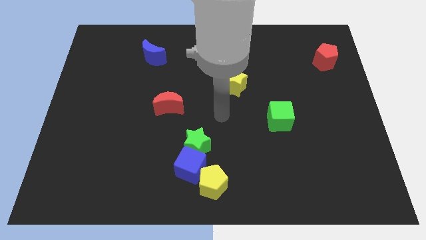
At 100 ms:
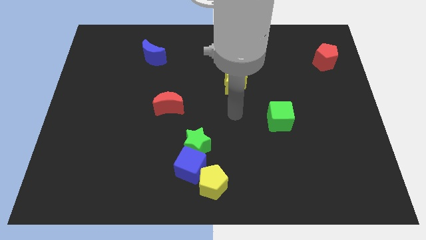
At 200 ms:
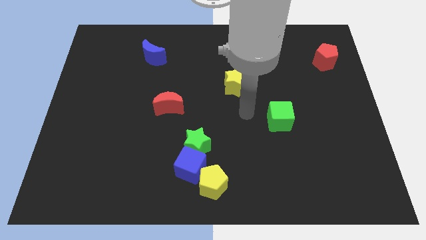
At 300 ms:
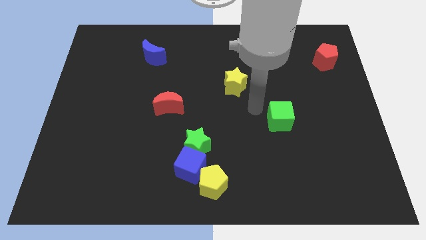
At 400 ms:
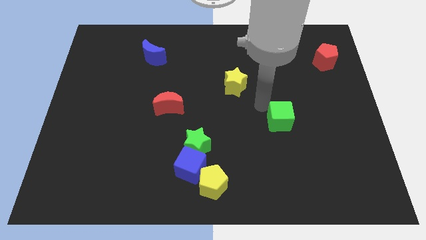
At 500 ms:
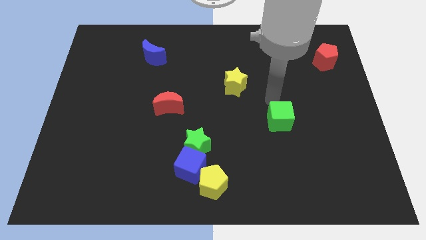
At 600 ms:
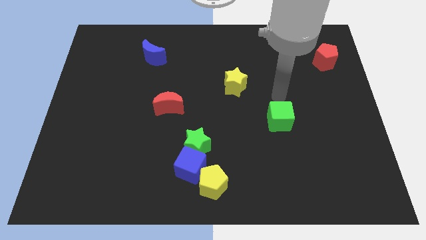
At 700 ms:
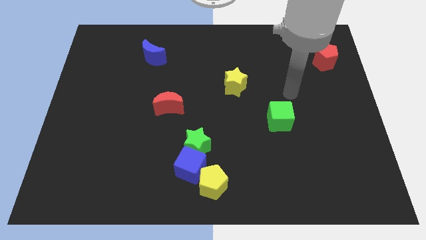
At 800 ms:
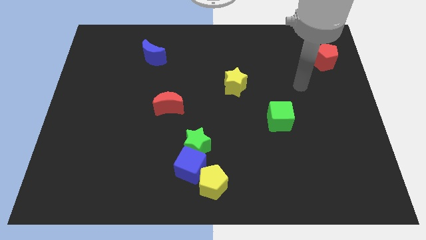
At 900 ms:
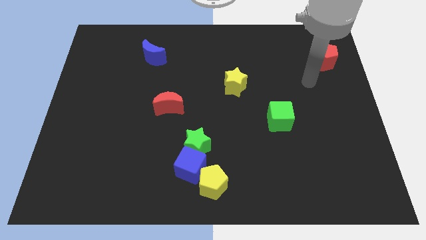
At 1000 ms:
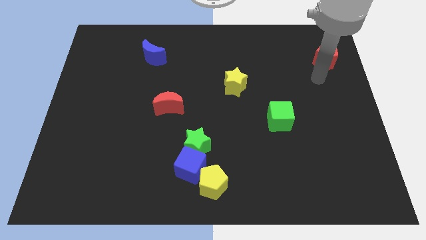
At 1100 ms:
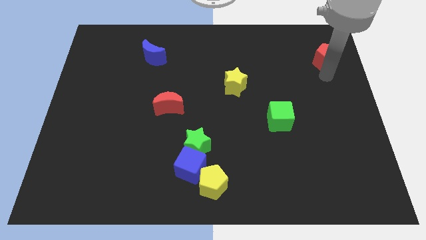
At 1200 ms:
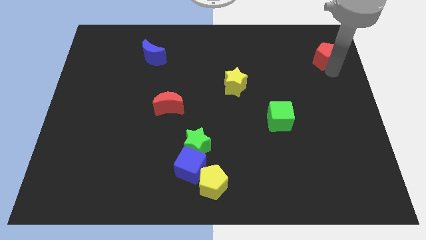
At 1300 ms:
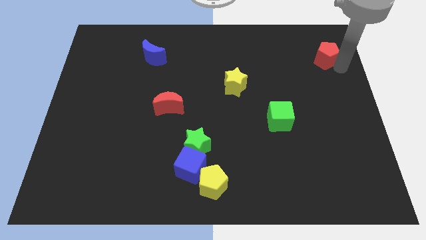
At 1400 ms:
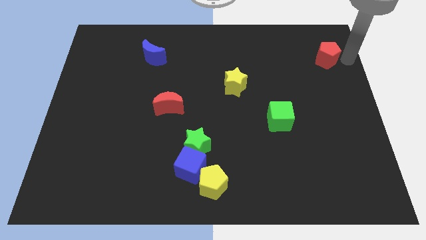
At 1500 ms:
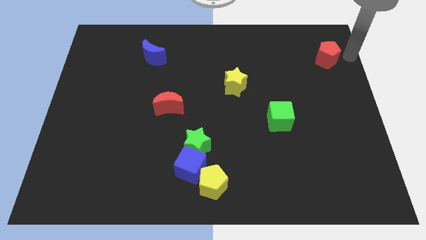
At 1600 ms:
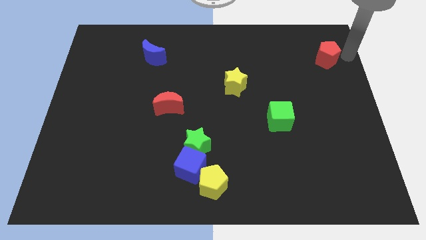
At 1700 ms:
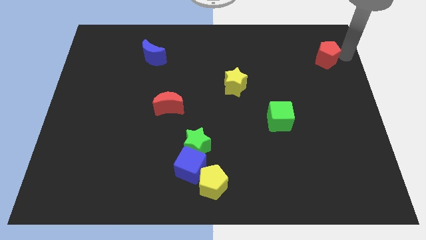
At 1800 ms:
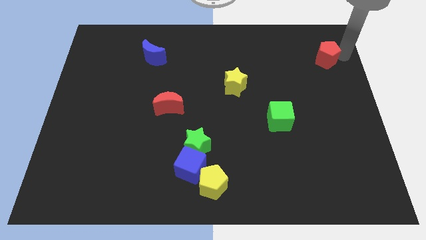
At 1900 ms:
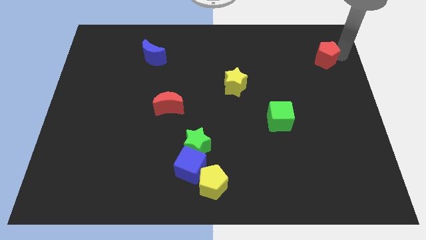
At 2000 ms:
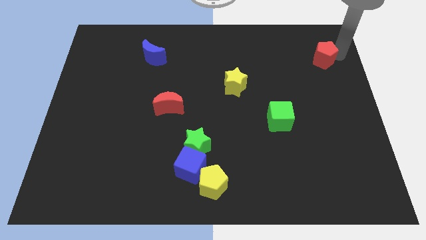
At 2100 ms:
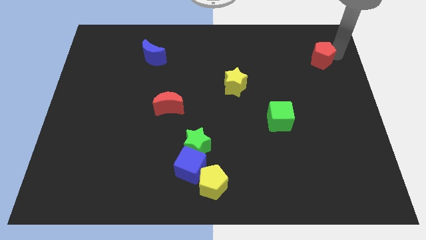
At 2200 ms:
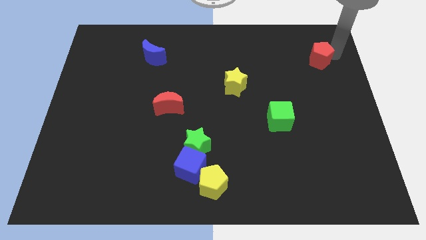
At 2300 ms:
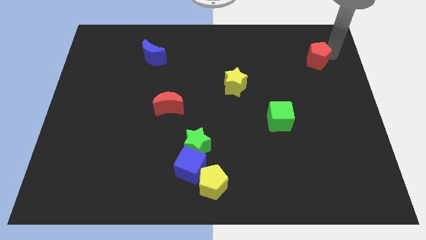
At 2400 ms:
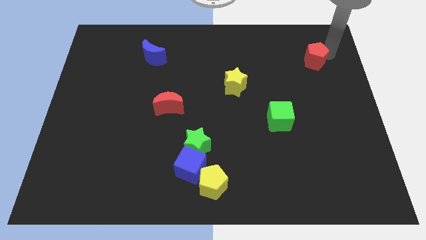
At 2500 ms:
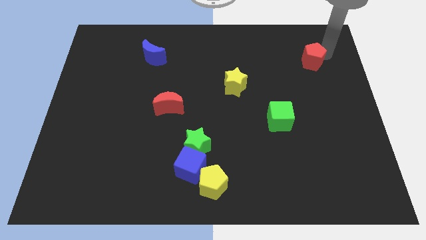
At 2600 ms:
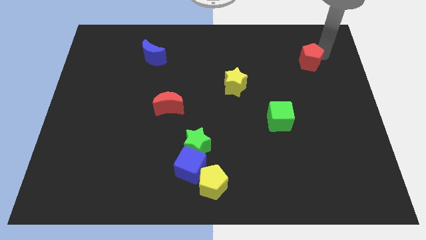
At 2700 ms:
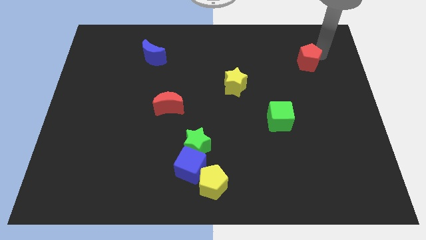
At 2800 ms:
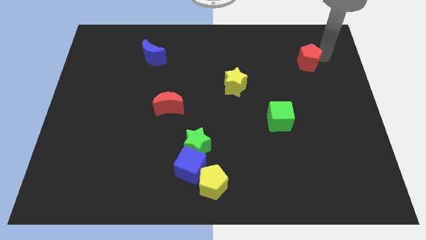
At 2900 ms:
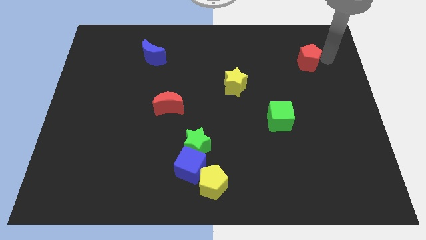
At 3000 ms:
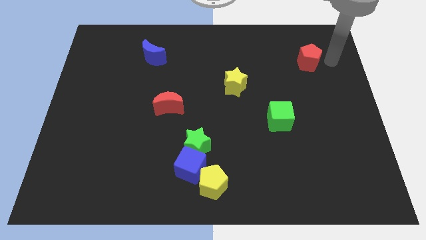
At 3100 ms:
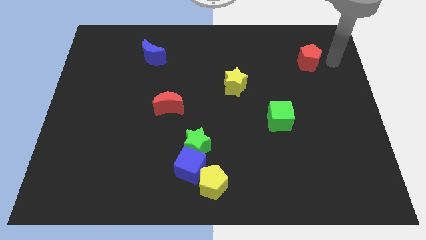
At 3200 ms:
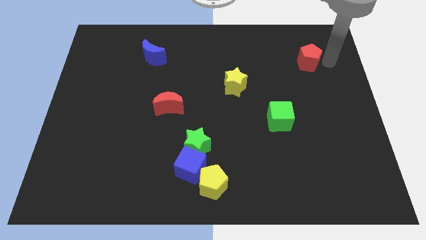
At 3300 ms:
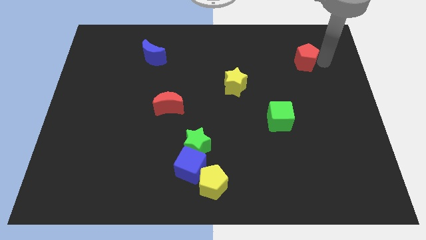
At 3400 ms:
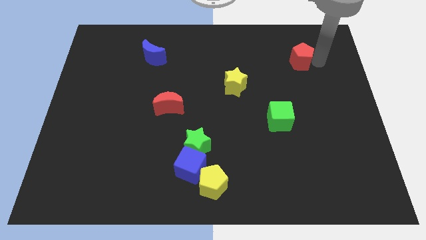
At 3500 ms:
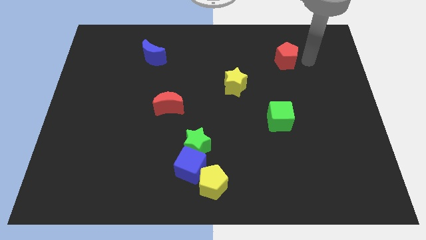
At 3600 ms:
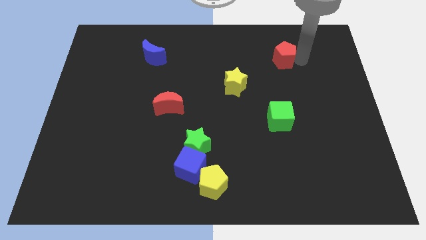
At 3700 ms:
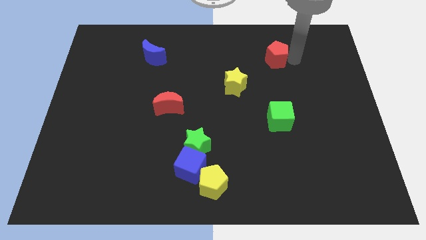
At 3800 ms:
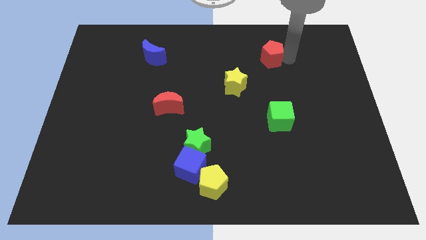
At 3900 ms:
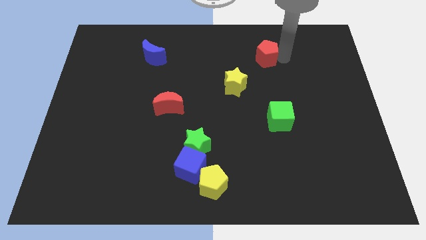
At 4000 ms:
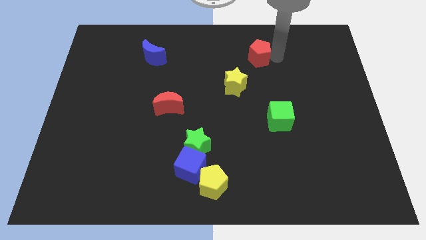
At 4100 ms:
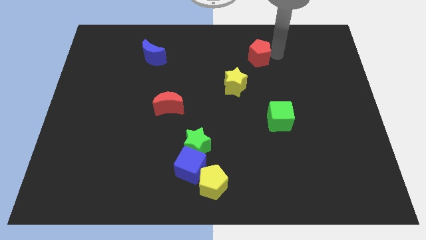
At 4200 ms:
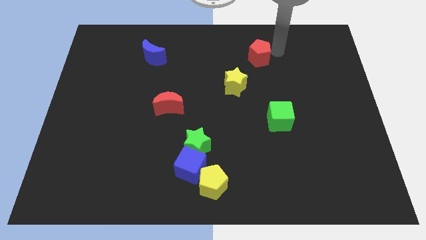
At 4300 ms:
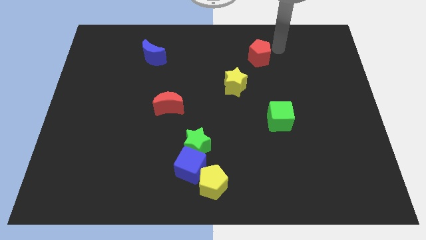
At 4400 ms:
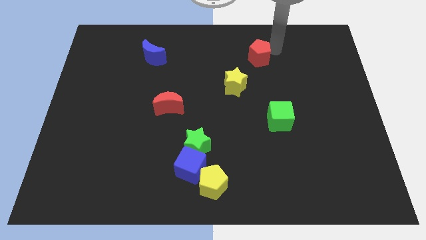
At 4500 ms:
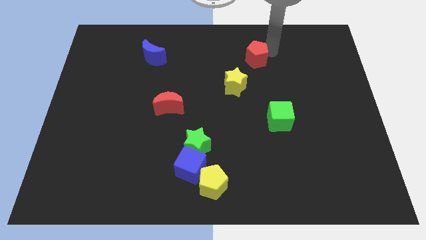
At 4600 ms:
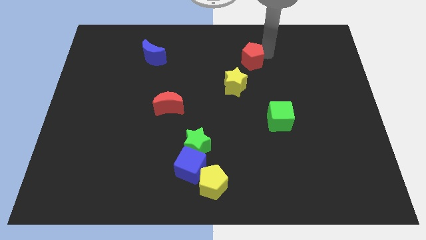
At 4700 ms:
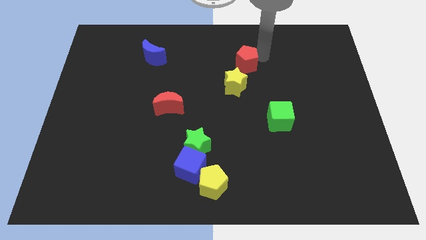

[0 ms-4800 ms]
push the red pentagon to the left

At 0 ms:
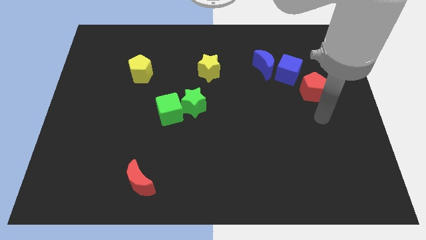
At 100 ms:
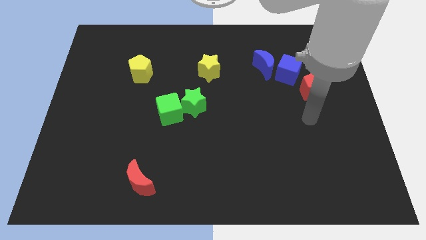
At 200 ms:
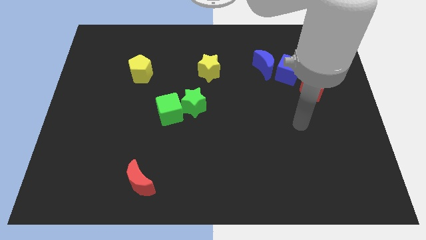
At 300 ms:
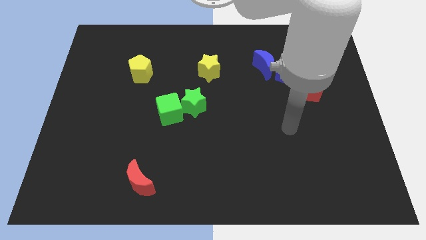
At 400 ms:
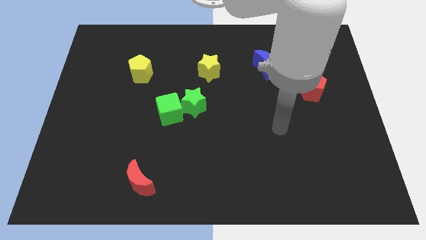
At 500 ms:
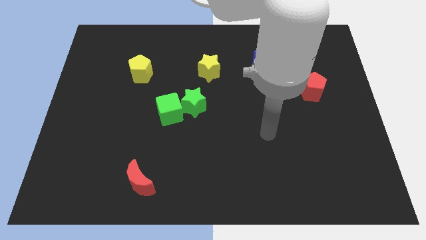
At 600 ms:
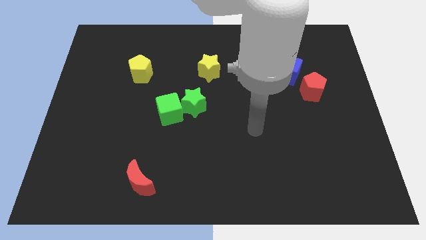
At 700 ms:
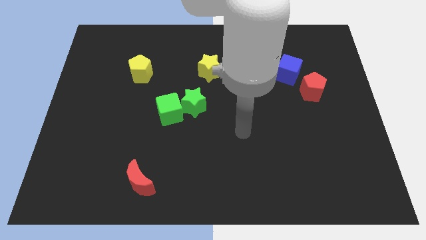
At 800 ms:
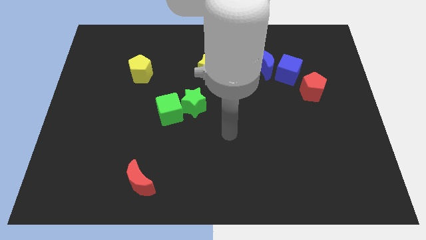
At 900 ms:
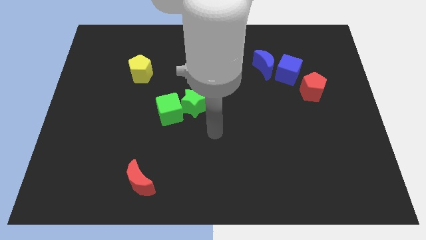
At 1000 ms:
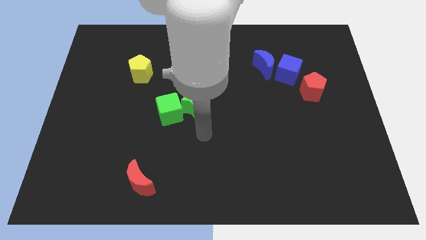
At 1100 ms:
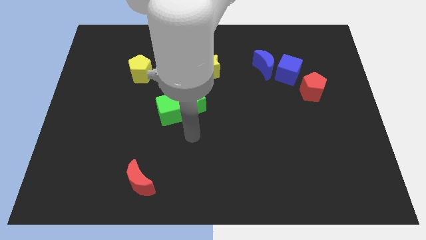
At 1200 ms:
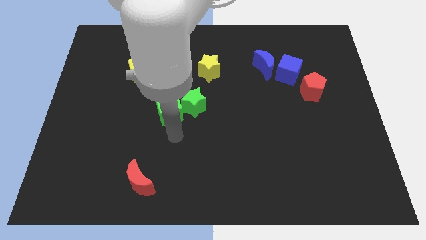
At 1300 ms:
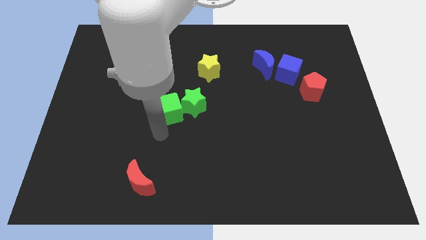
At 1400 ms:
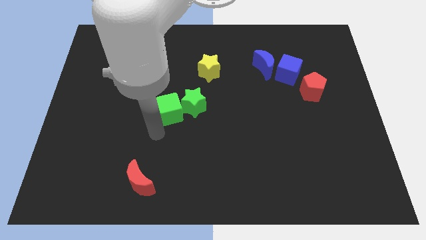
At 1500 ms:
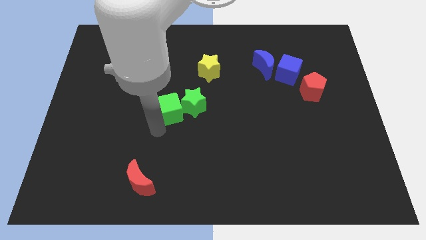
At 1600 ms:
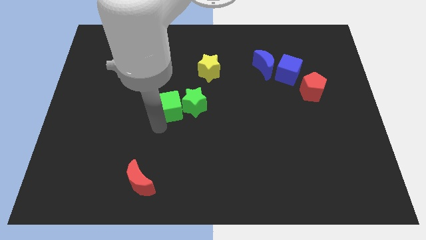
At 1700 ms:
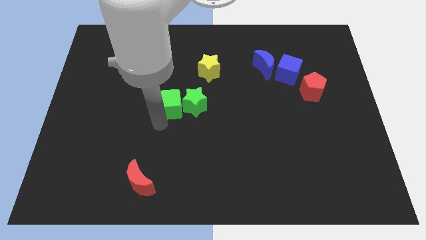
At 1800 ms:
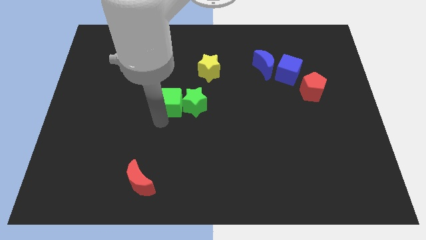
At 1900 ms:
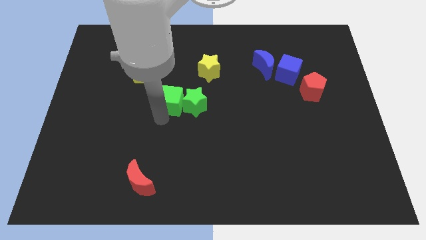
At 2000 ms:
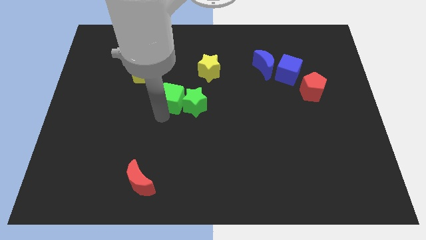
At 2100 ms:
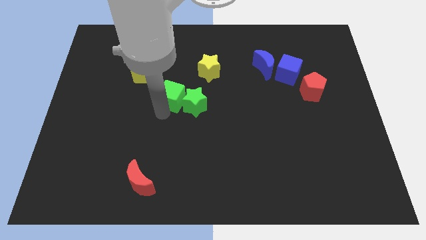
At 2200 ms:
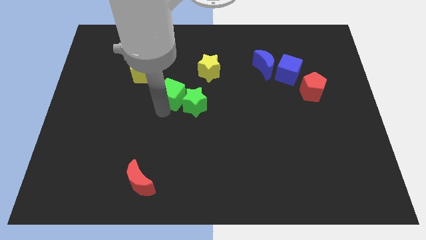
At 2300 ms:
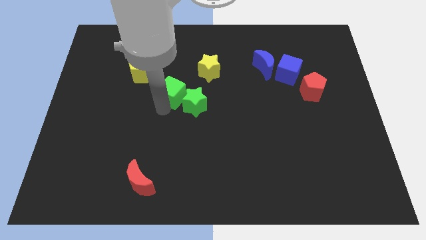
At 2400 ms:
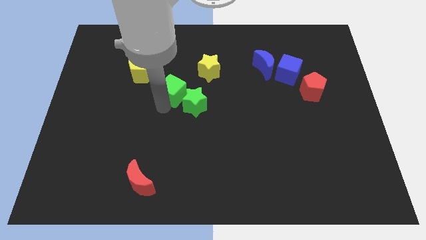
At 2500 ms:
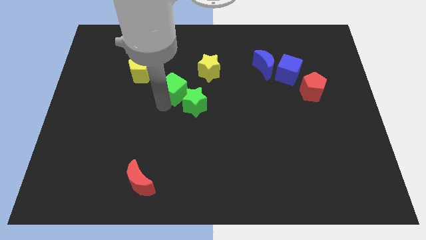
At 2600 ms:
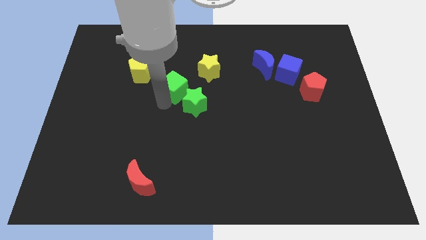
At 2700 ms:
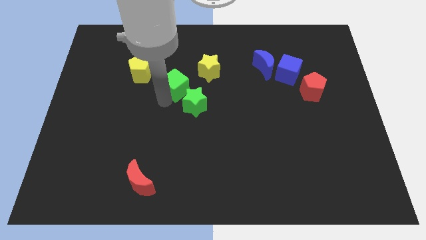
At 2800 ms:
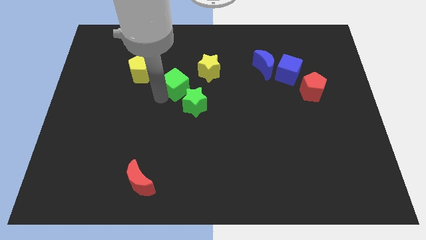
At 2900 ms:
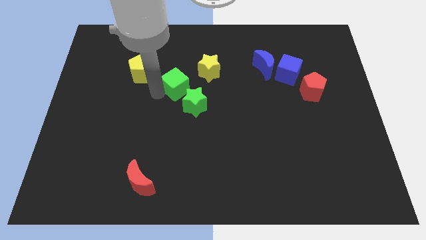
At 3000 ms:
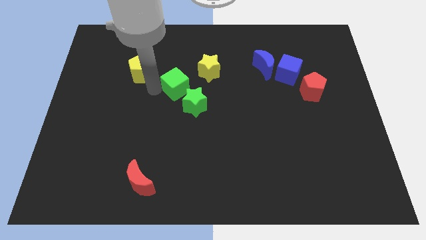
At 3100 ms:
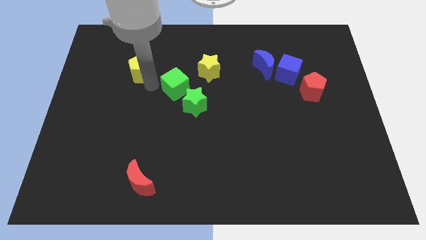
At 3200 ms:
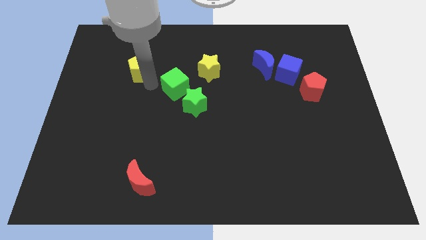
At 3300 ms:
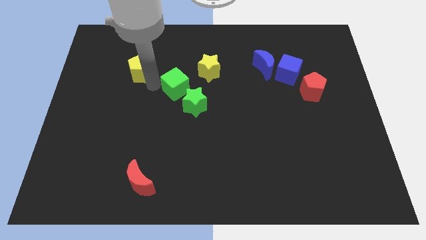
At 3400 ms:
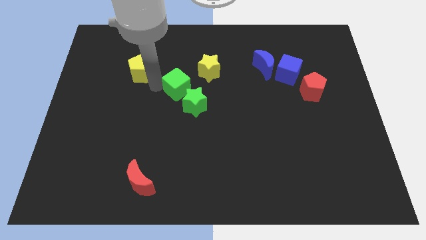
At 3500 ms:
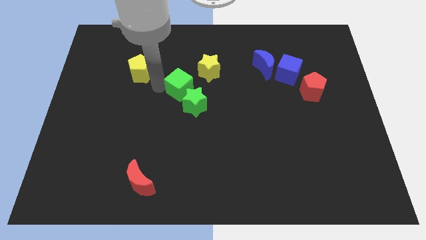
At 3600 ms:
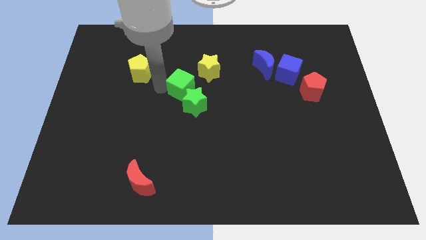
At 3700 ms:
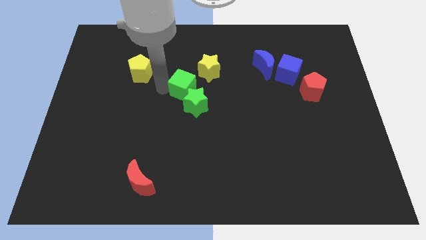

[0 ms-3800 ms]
push the green cube diagonally up and to the right a little bit
